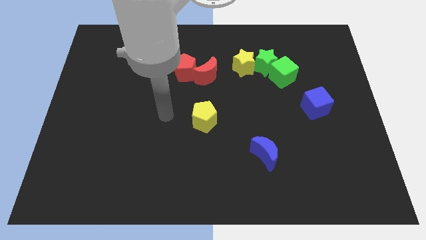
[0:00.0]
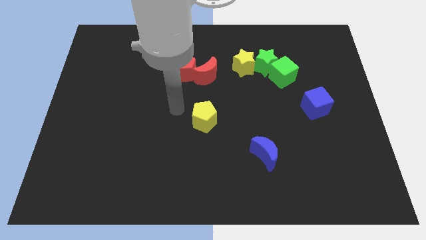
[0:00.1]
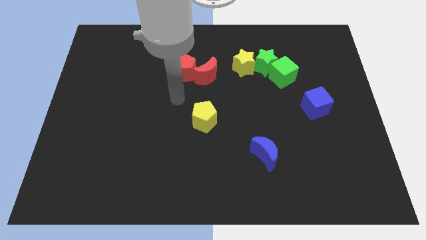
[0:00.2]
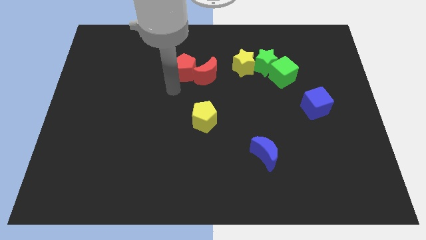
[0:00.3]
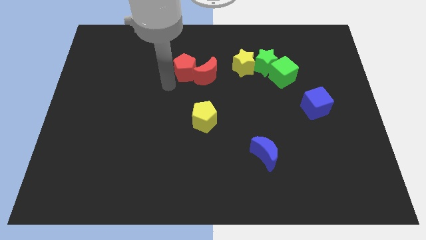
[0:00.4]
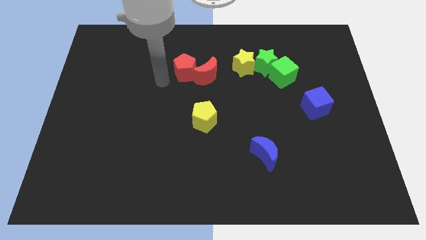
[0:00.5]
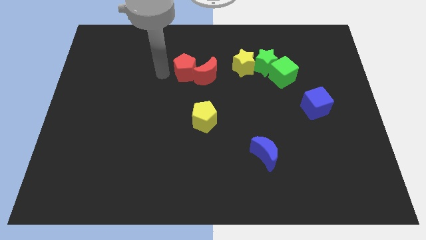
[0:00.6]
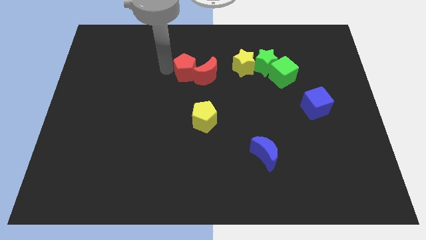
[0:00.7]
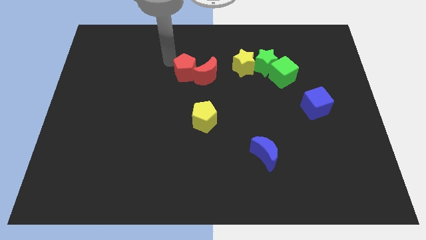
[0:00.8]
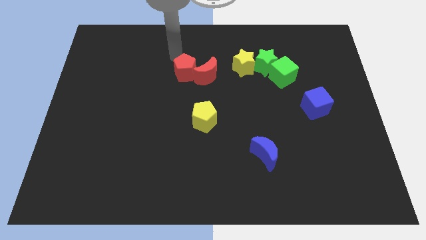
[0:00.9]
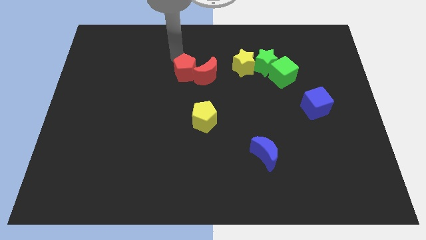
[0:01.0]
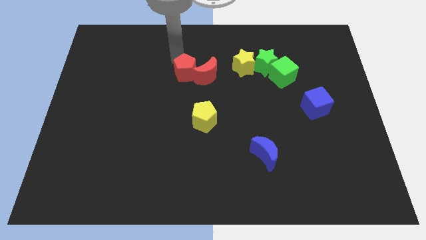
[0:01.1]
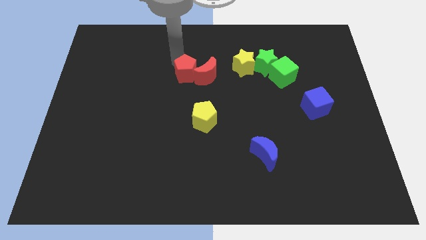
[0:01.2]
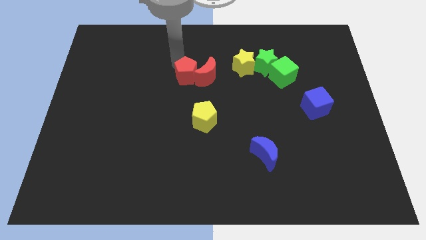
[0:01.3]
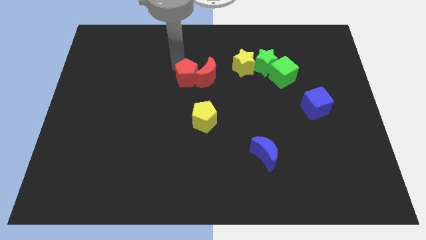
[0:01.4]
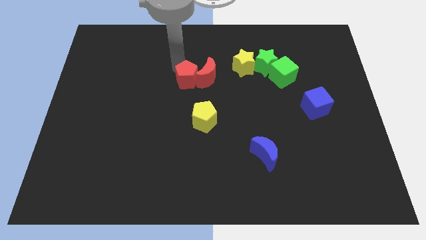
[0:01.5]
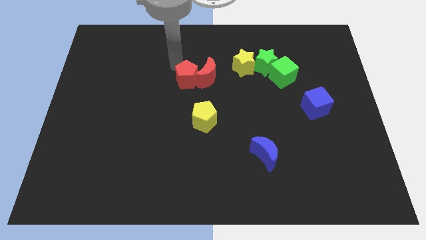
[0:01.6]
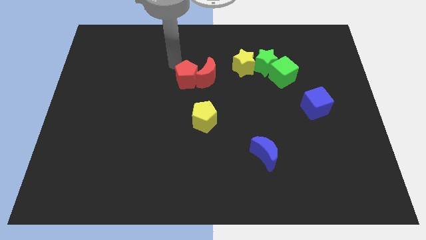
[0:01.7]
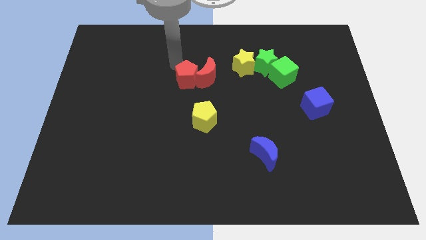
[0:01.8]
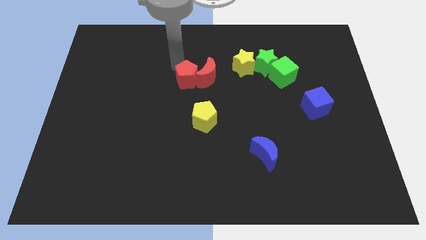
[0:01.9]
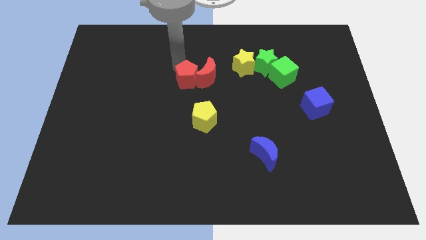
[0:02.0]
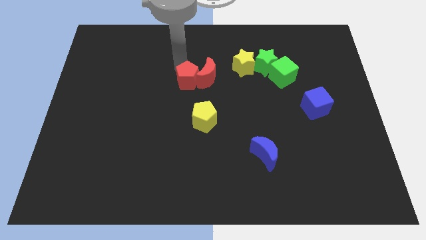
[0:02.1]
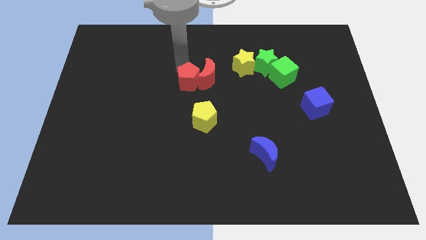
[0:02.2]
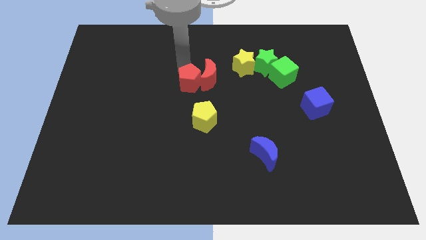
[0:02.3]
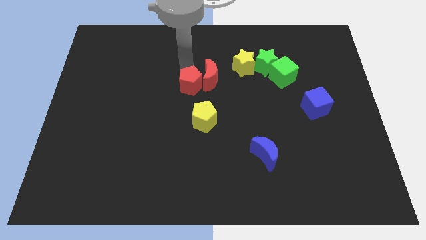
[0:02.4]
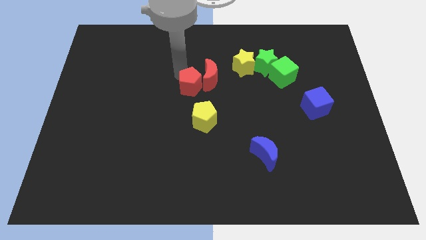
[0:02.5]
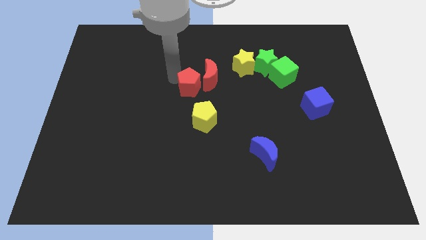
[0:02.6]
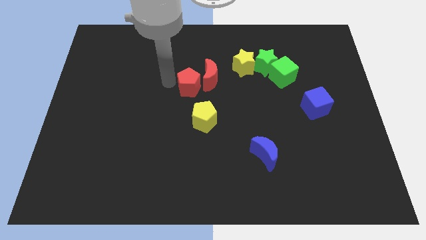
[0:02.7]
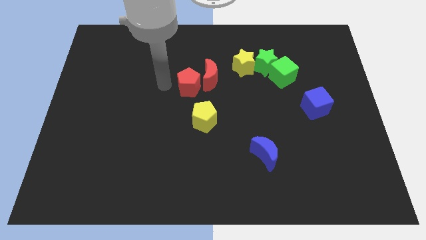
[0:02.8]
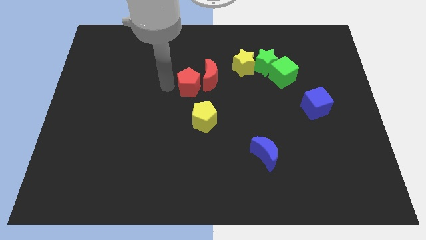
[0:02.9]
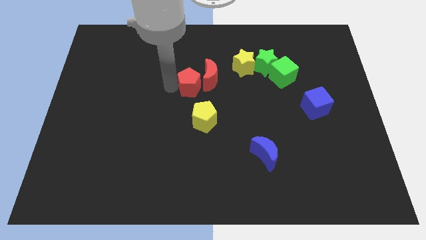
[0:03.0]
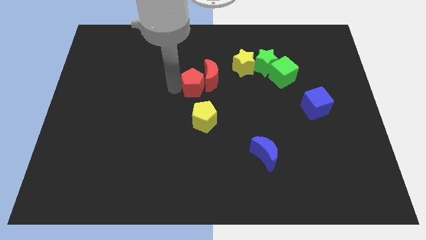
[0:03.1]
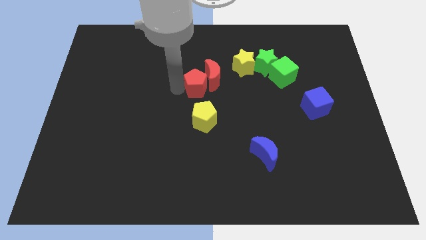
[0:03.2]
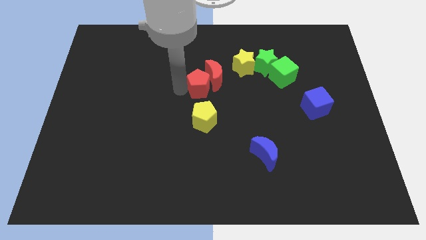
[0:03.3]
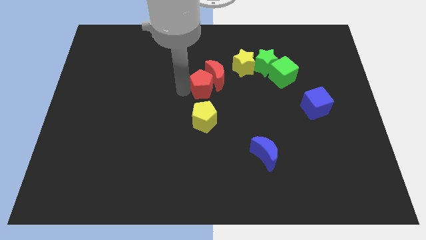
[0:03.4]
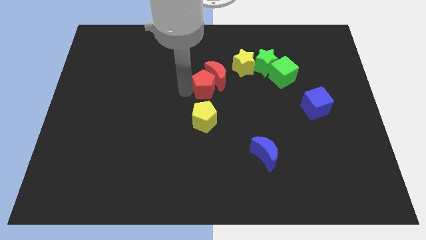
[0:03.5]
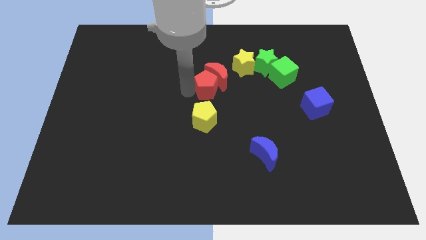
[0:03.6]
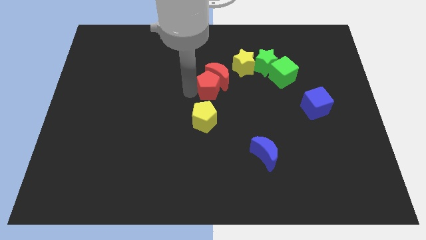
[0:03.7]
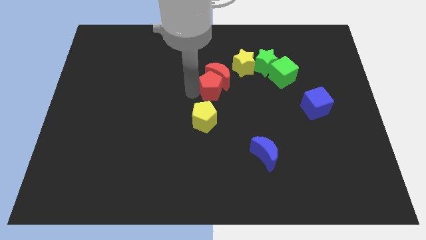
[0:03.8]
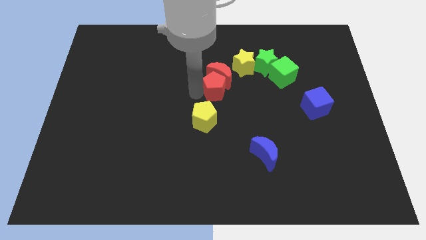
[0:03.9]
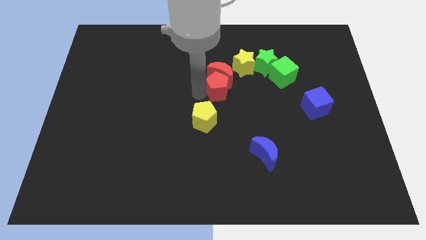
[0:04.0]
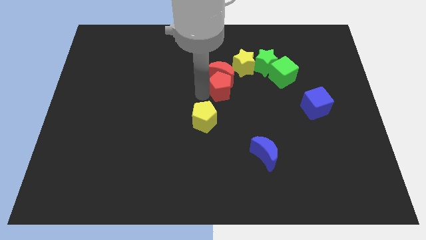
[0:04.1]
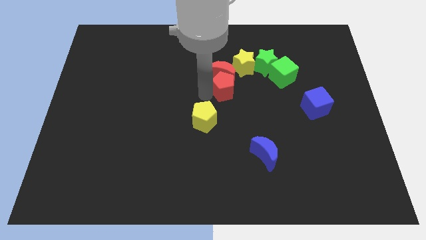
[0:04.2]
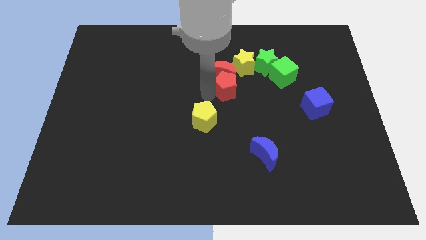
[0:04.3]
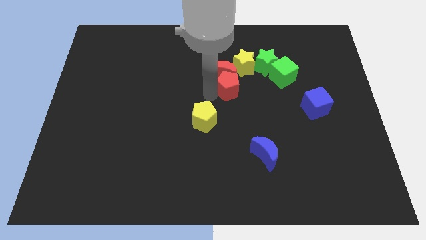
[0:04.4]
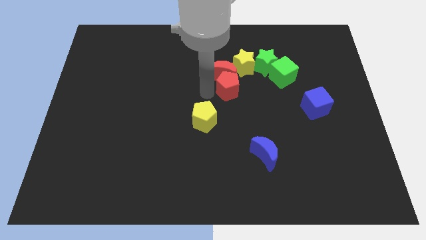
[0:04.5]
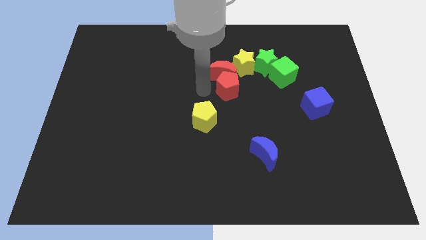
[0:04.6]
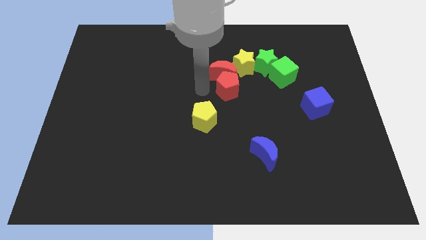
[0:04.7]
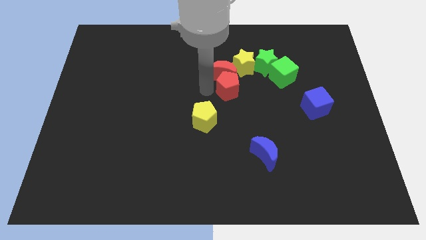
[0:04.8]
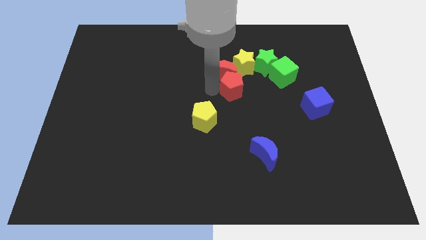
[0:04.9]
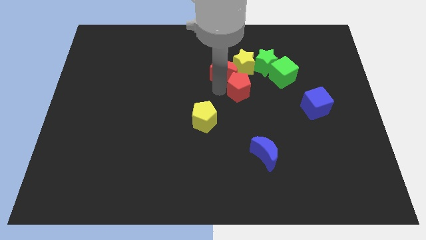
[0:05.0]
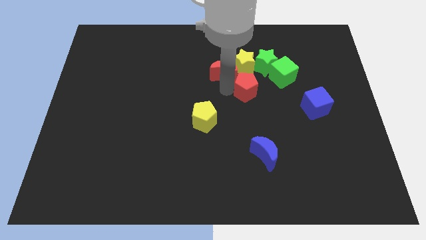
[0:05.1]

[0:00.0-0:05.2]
move the red pentagon to the bottom left of the green cube
